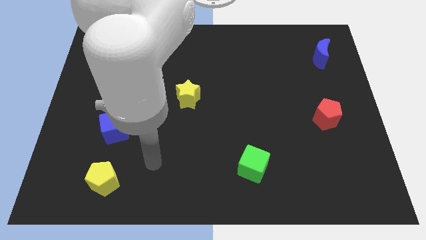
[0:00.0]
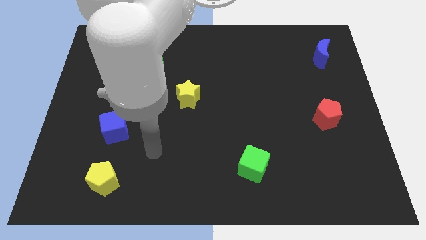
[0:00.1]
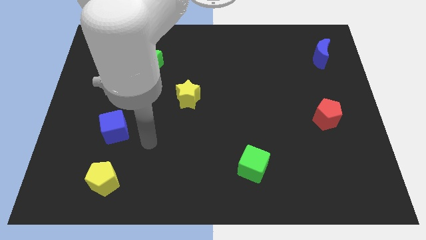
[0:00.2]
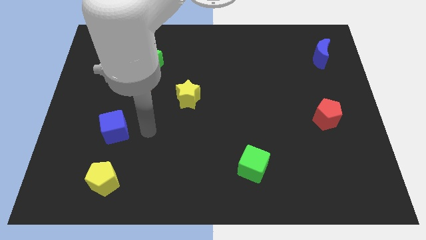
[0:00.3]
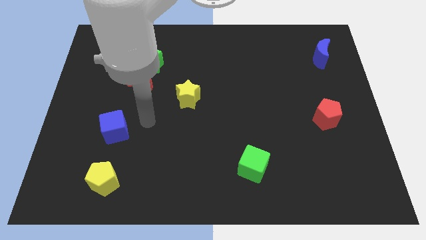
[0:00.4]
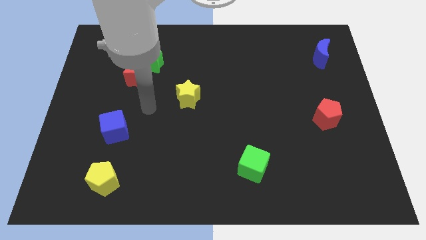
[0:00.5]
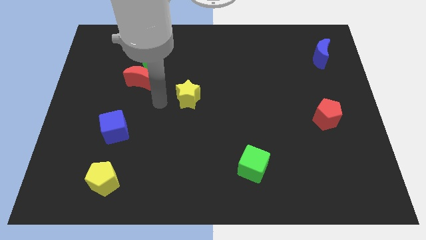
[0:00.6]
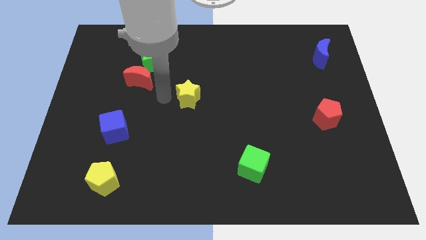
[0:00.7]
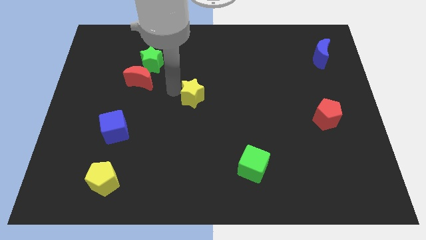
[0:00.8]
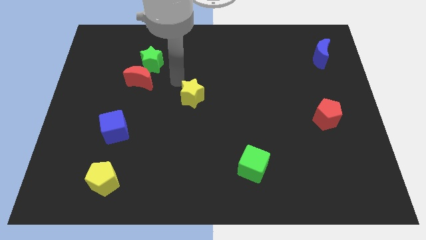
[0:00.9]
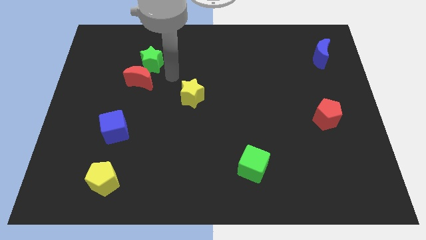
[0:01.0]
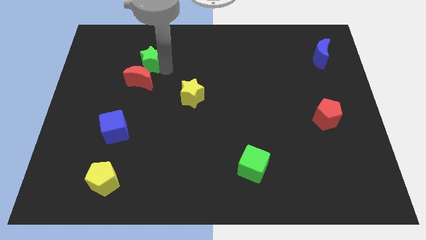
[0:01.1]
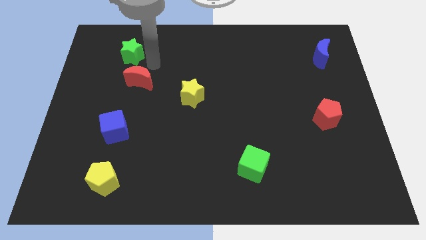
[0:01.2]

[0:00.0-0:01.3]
separate the red moon from the green star

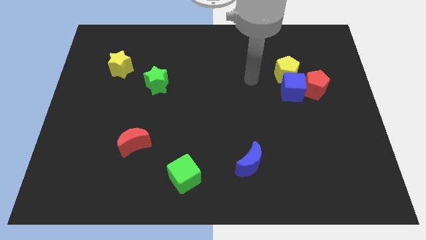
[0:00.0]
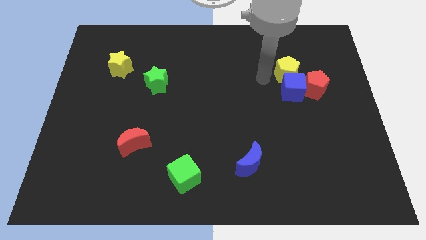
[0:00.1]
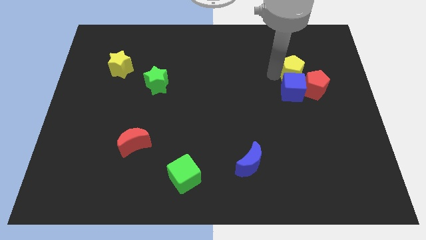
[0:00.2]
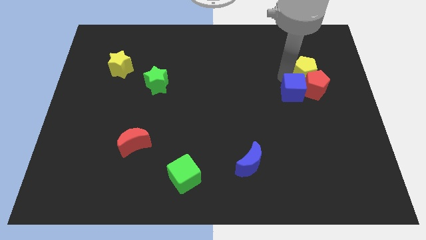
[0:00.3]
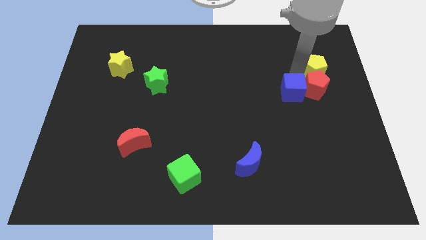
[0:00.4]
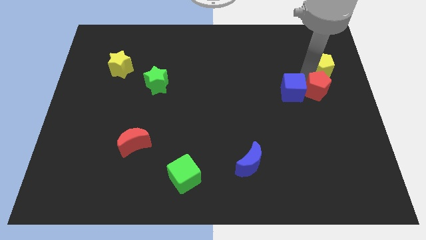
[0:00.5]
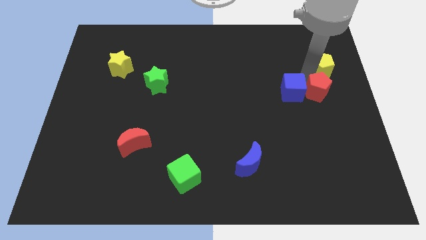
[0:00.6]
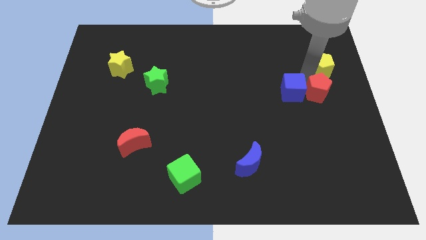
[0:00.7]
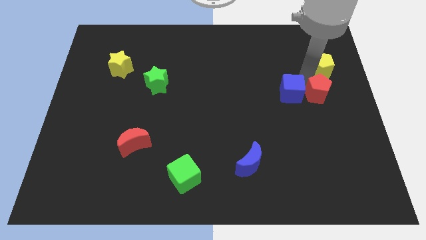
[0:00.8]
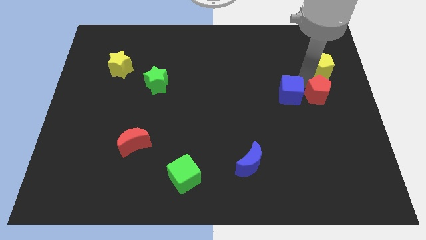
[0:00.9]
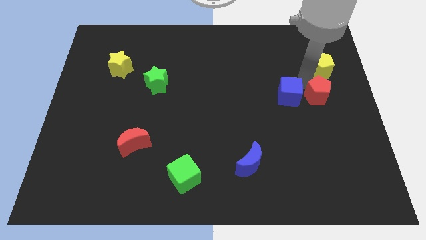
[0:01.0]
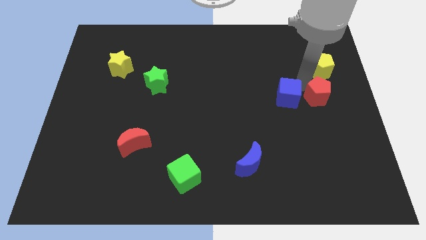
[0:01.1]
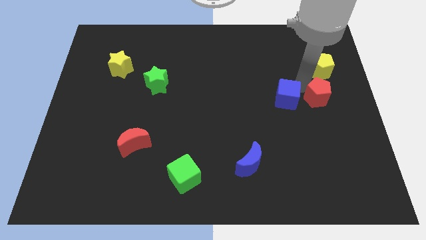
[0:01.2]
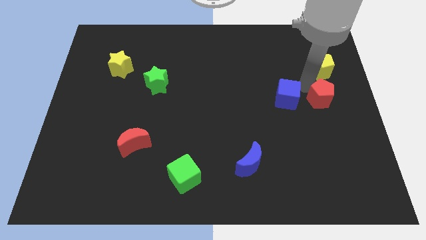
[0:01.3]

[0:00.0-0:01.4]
pull the blue cube apart from the red pentagon and yellow pentagon

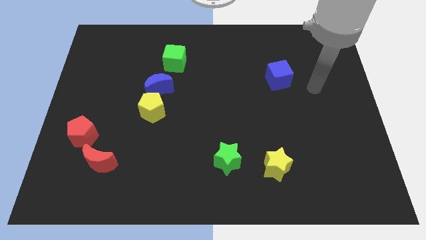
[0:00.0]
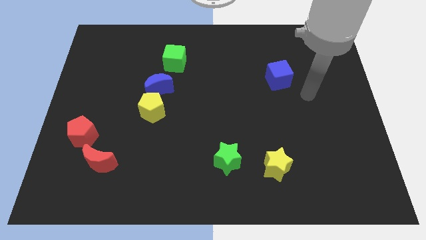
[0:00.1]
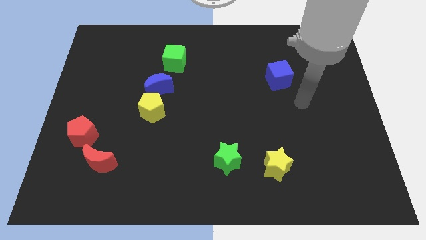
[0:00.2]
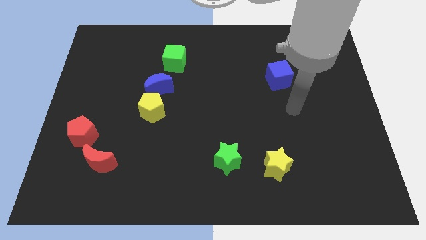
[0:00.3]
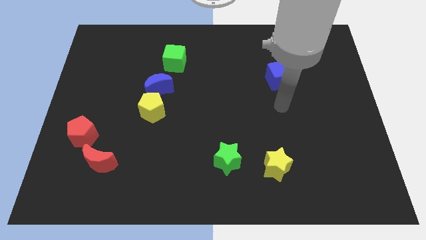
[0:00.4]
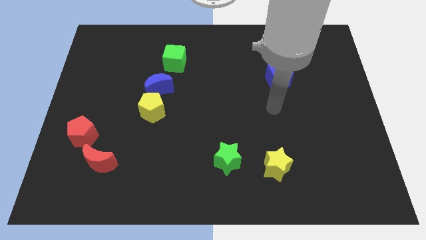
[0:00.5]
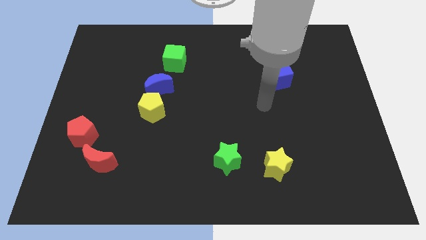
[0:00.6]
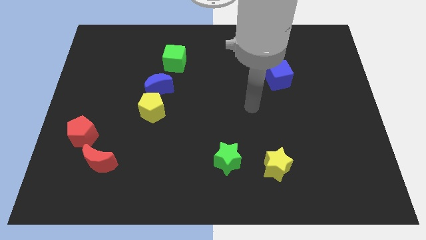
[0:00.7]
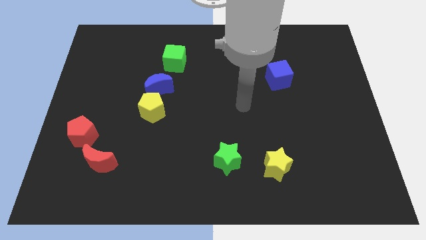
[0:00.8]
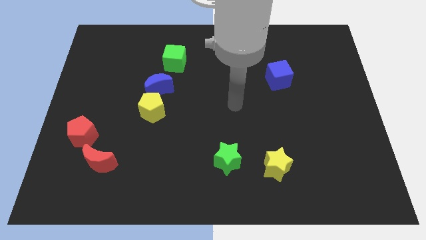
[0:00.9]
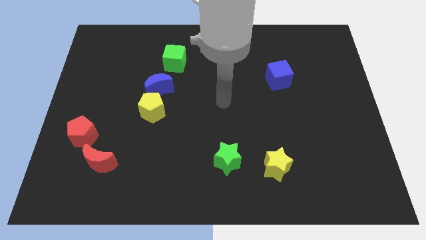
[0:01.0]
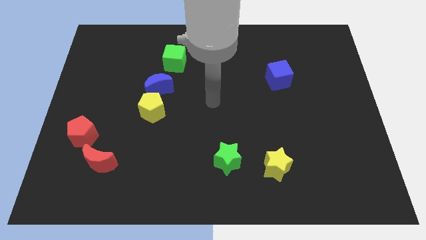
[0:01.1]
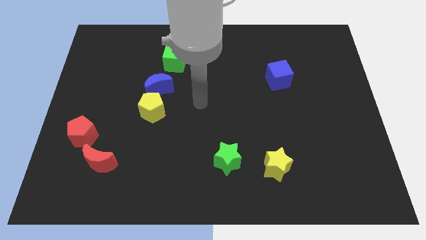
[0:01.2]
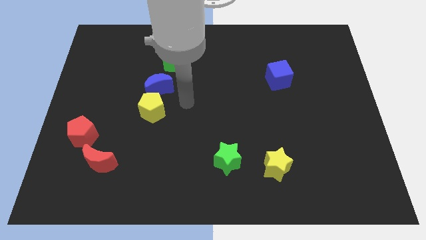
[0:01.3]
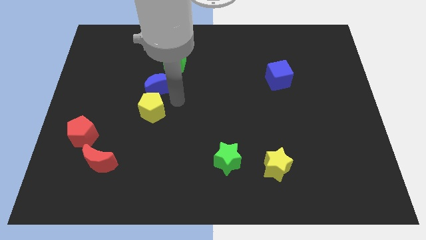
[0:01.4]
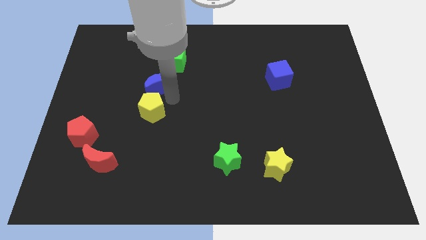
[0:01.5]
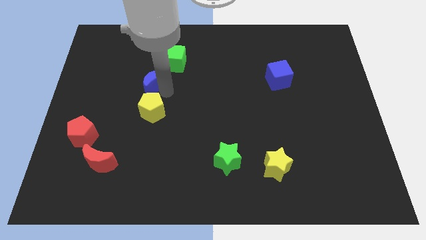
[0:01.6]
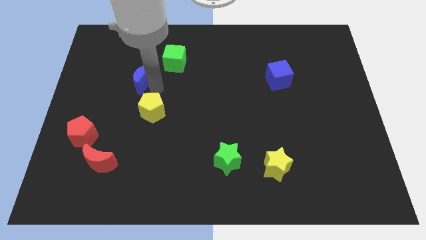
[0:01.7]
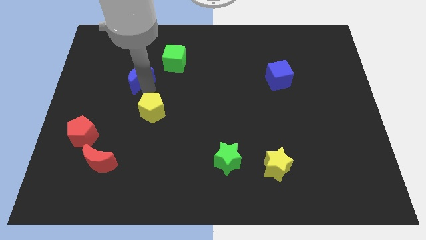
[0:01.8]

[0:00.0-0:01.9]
move the yellow pentagon away from the blue moon

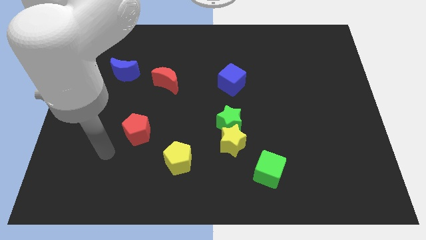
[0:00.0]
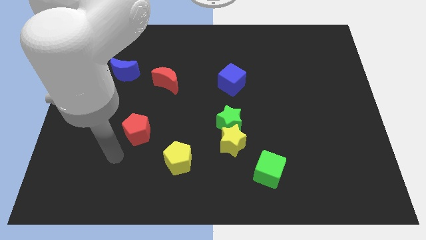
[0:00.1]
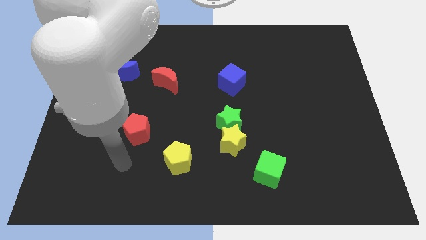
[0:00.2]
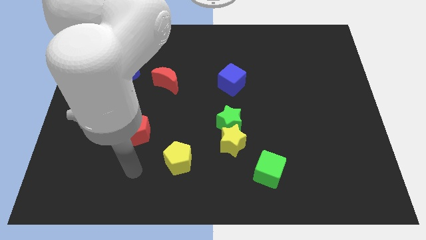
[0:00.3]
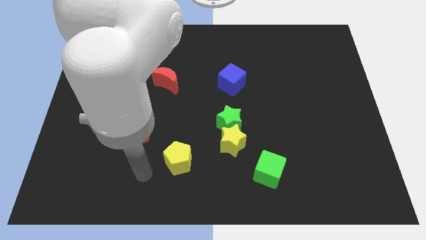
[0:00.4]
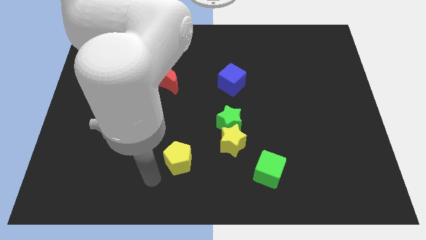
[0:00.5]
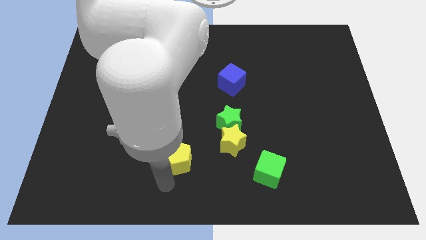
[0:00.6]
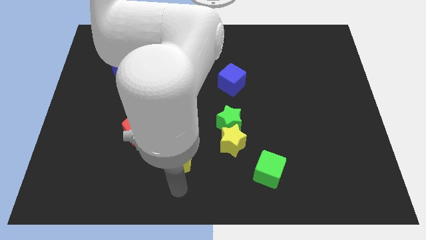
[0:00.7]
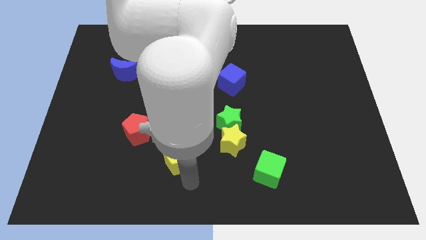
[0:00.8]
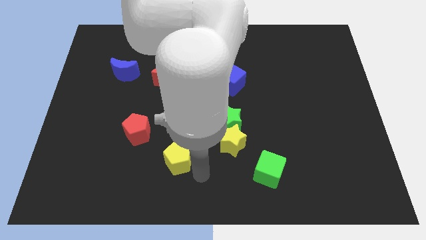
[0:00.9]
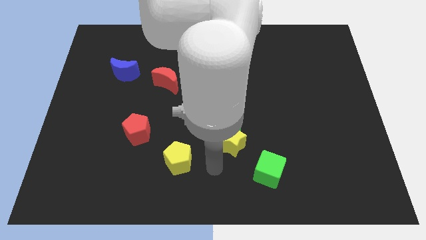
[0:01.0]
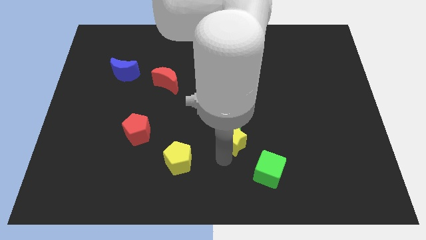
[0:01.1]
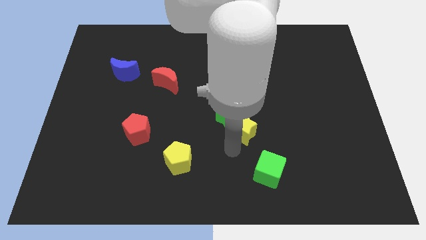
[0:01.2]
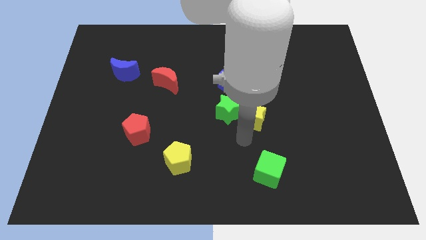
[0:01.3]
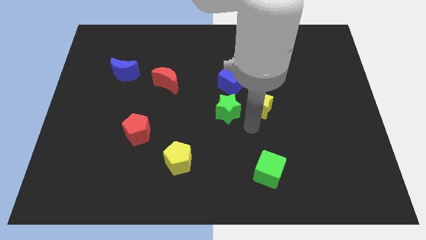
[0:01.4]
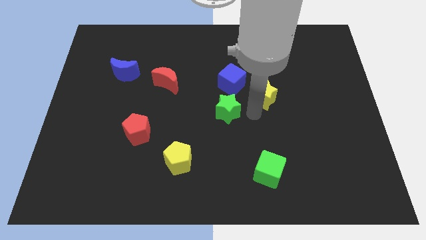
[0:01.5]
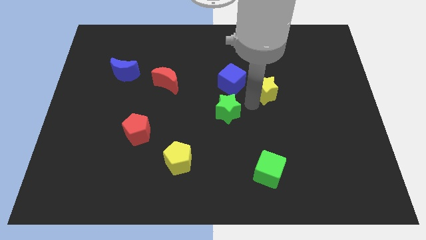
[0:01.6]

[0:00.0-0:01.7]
move the green star away from the yellow star

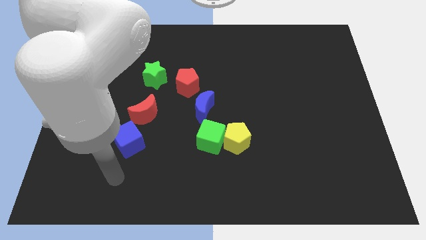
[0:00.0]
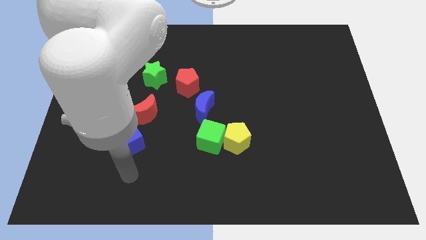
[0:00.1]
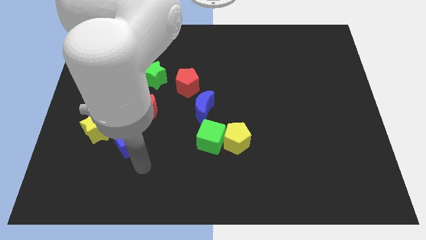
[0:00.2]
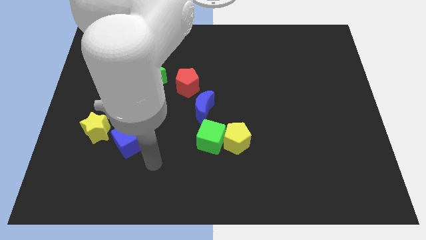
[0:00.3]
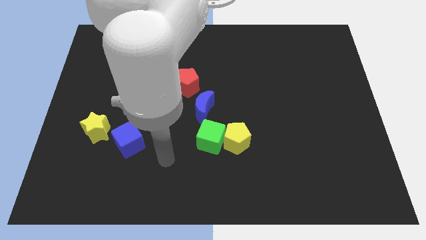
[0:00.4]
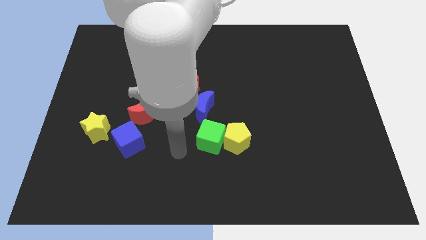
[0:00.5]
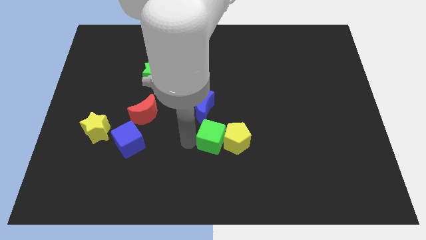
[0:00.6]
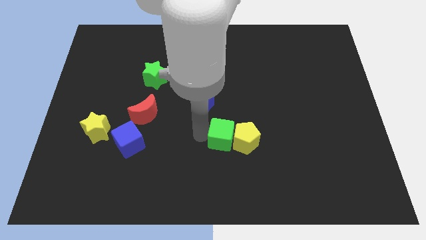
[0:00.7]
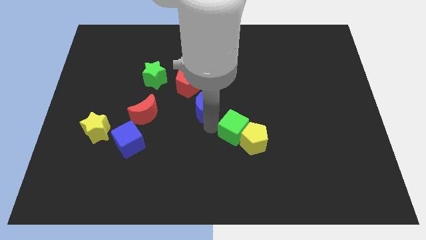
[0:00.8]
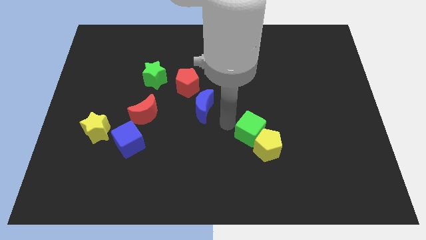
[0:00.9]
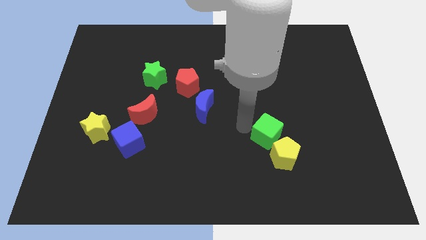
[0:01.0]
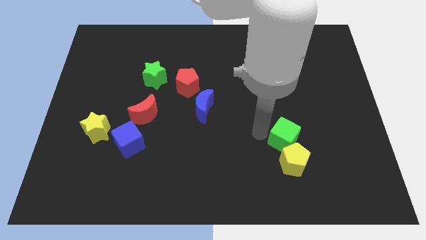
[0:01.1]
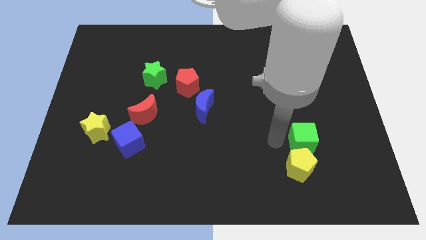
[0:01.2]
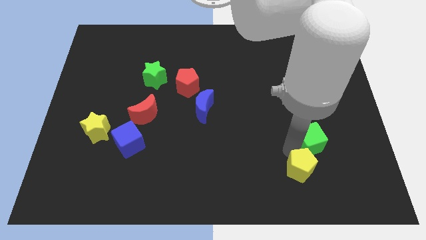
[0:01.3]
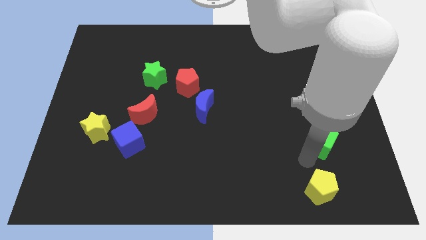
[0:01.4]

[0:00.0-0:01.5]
separate the yellow pentagon from the green cube

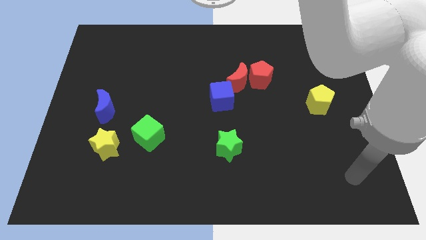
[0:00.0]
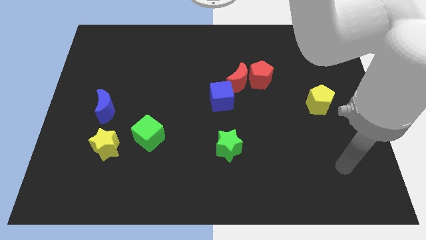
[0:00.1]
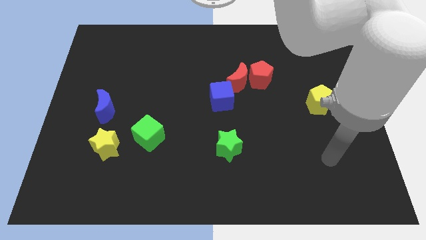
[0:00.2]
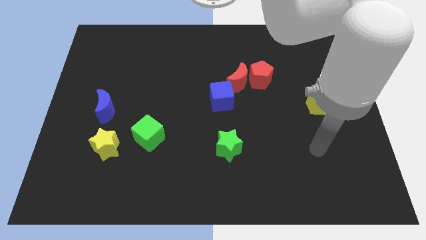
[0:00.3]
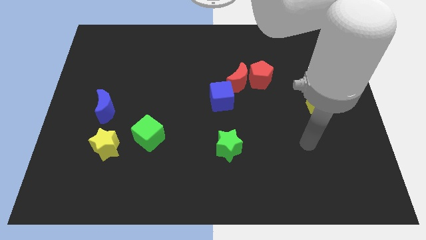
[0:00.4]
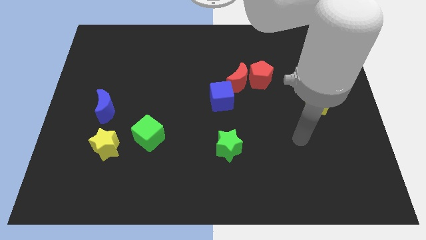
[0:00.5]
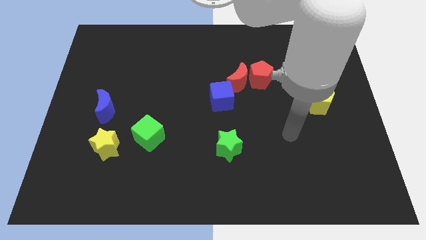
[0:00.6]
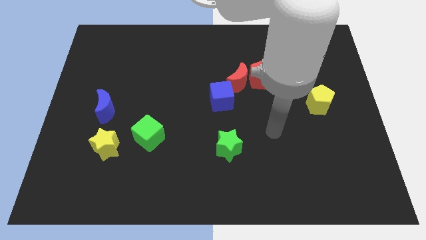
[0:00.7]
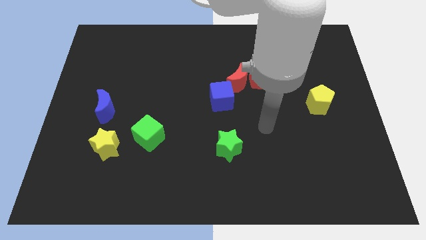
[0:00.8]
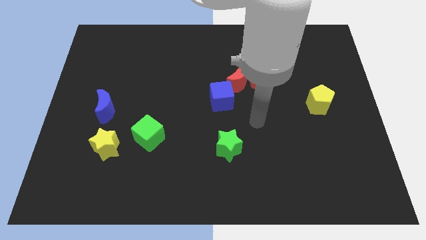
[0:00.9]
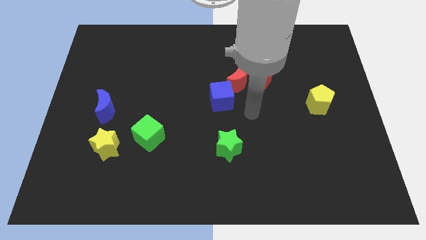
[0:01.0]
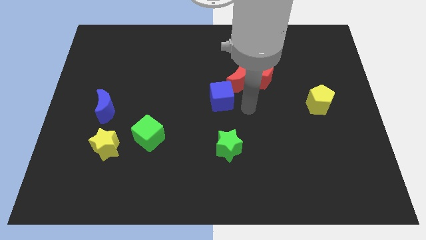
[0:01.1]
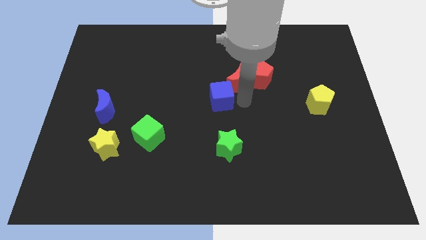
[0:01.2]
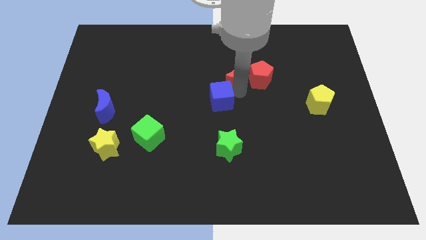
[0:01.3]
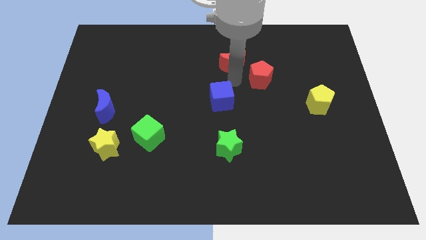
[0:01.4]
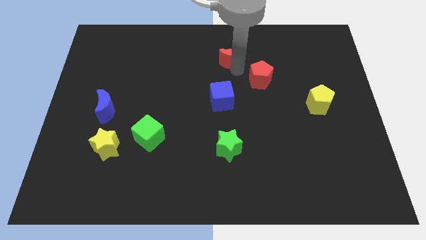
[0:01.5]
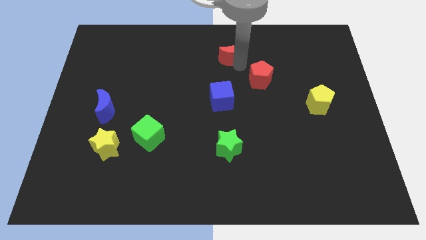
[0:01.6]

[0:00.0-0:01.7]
pull the red pentagon apart from the red moon
